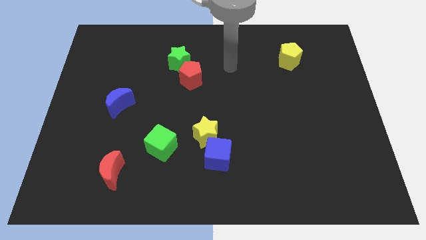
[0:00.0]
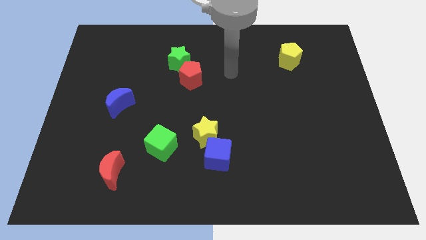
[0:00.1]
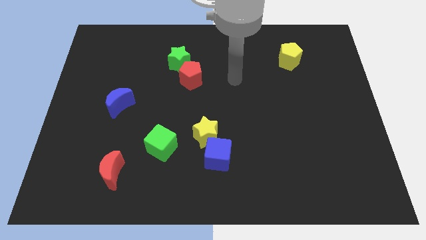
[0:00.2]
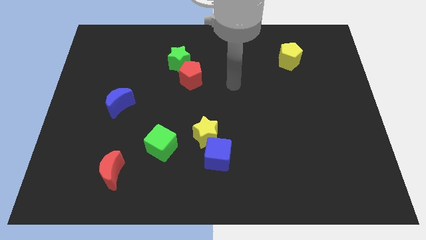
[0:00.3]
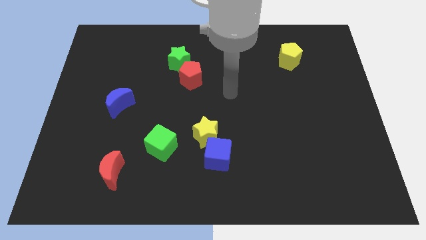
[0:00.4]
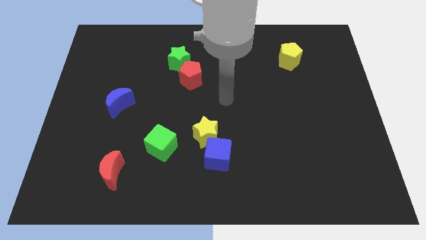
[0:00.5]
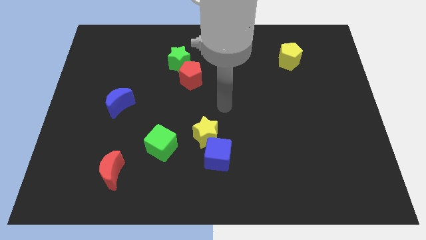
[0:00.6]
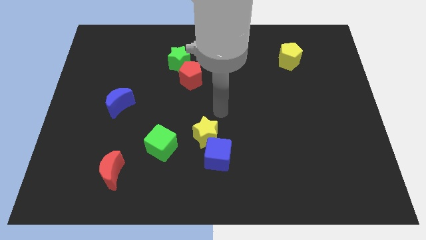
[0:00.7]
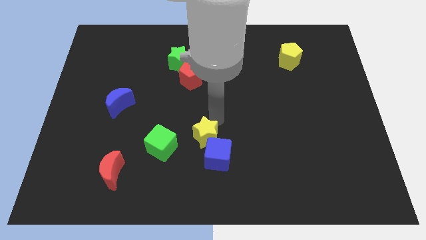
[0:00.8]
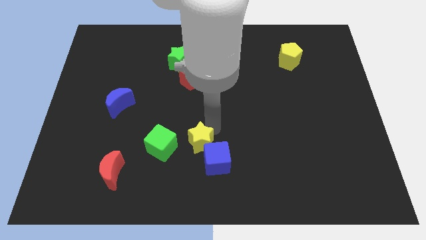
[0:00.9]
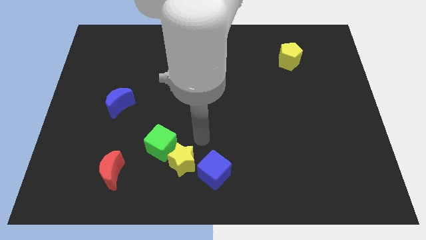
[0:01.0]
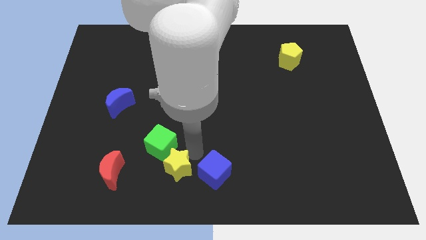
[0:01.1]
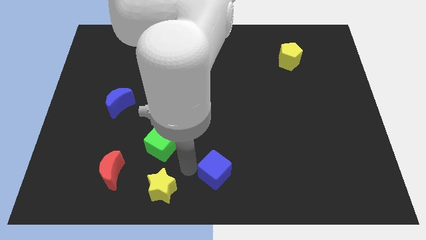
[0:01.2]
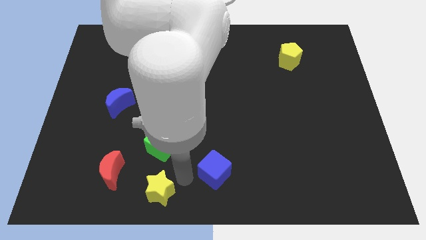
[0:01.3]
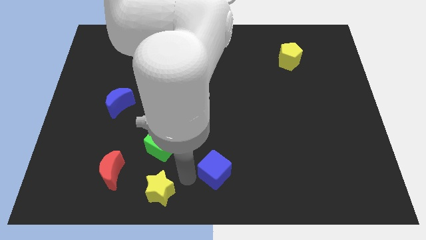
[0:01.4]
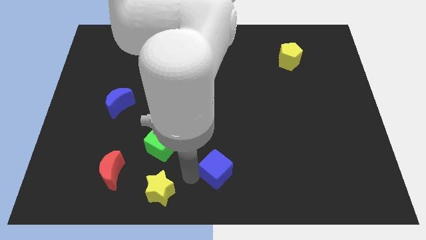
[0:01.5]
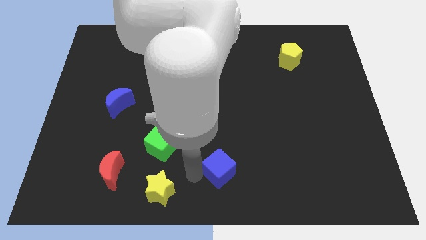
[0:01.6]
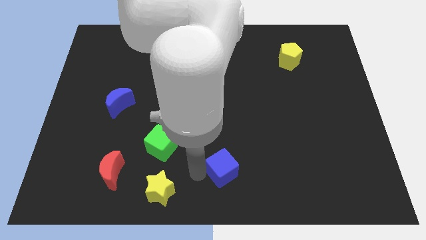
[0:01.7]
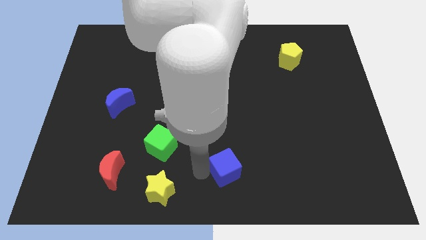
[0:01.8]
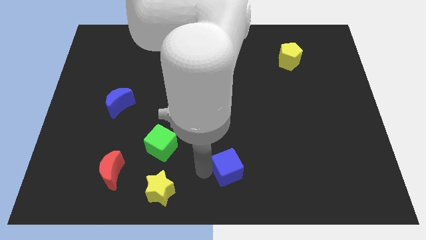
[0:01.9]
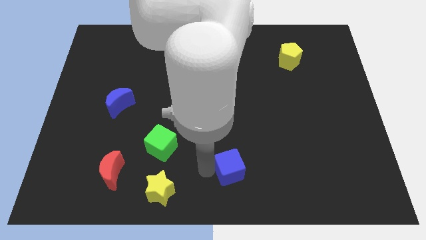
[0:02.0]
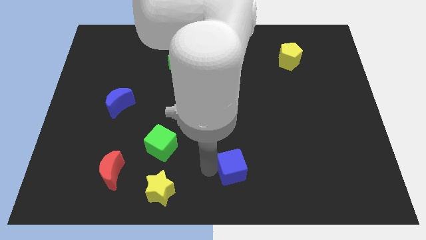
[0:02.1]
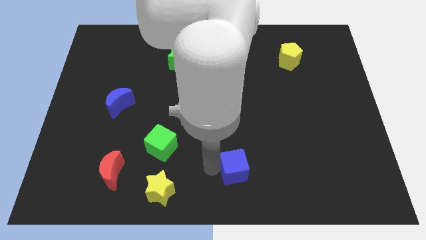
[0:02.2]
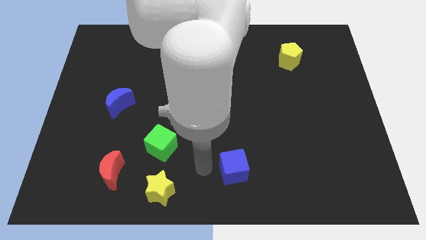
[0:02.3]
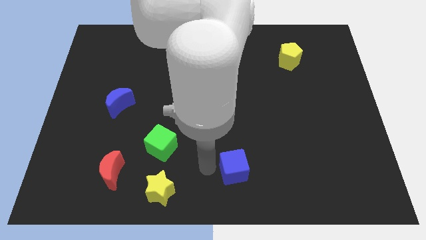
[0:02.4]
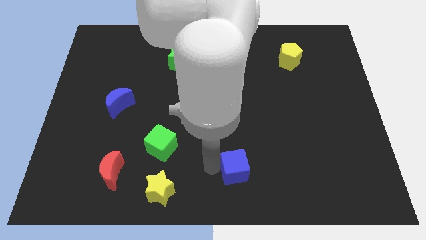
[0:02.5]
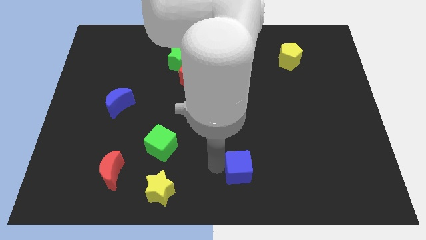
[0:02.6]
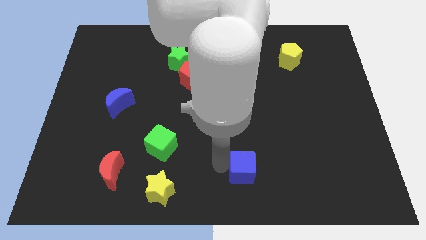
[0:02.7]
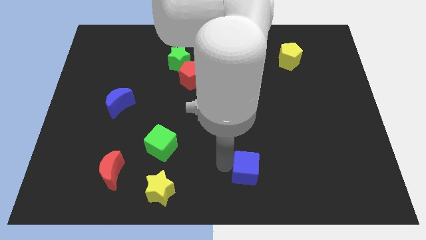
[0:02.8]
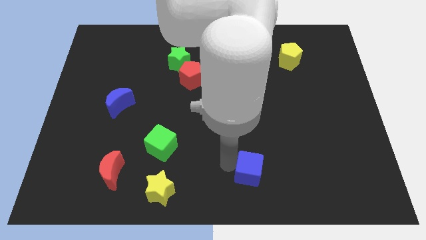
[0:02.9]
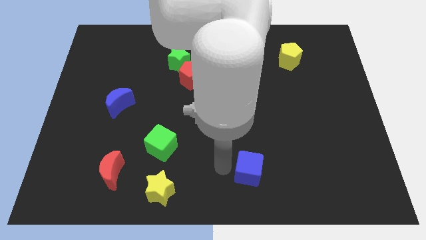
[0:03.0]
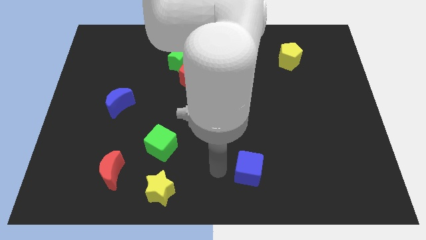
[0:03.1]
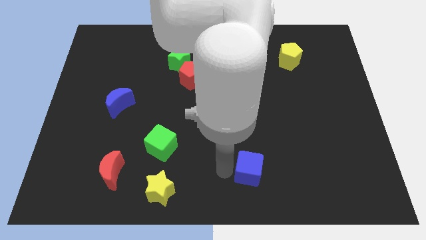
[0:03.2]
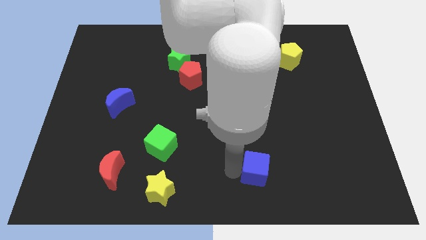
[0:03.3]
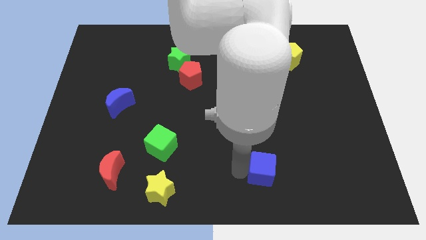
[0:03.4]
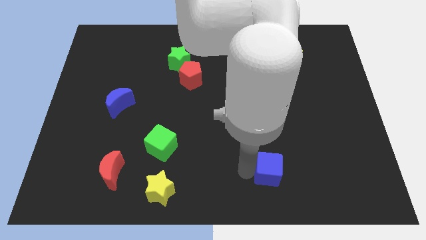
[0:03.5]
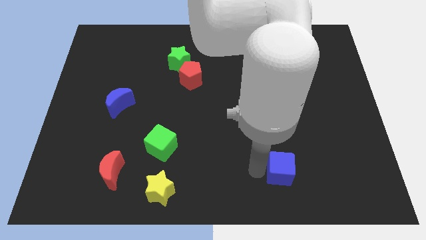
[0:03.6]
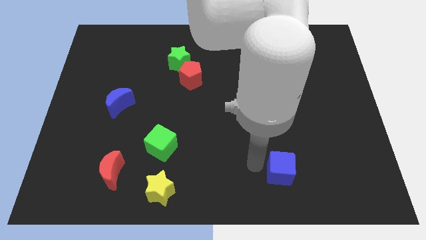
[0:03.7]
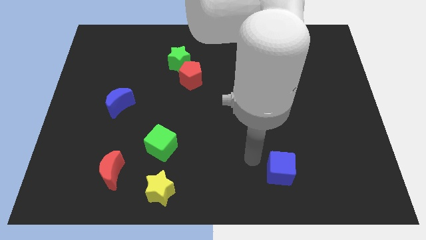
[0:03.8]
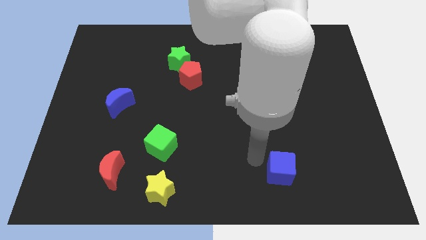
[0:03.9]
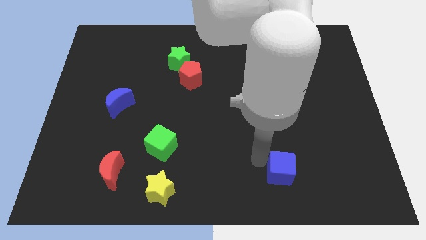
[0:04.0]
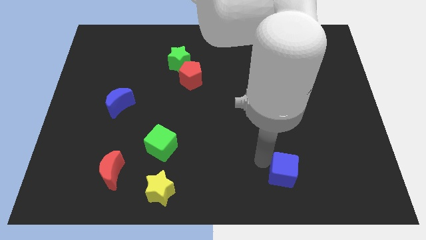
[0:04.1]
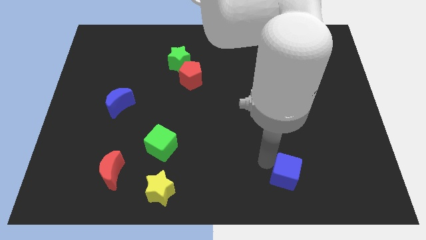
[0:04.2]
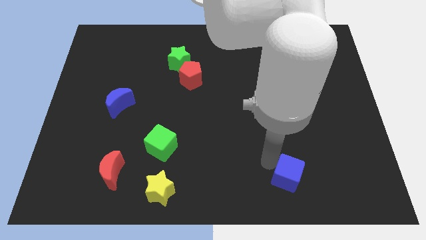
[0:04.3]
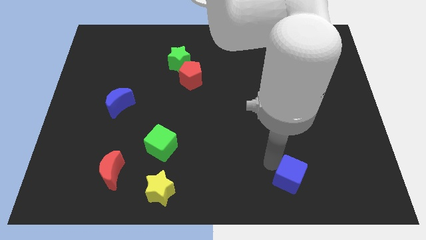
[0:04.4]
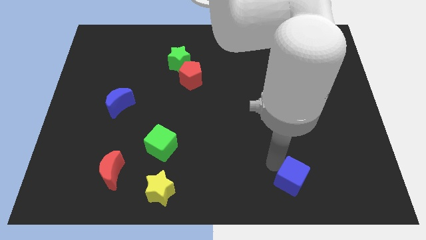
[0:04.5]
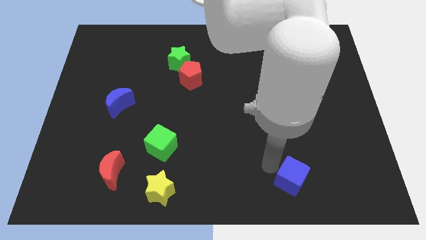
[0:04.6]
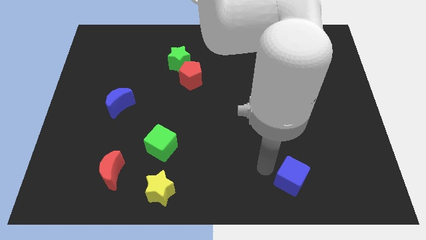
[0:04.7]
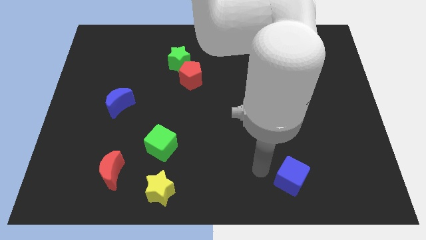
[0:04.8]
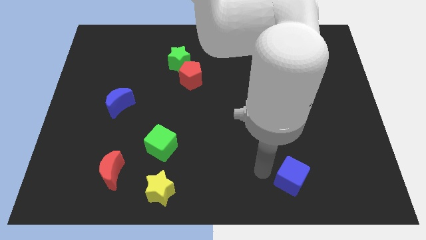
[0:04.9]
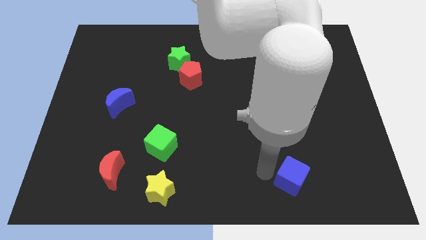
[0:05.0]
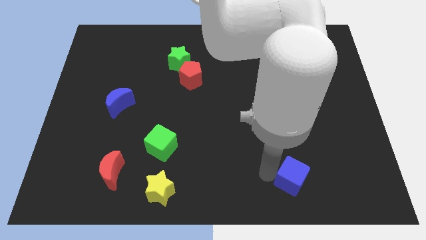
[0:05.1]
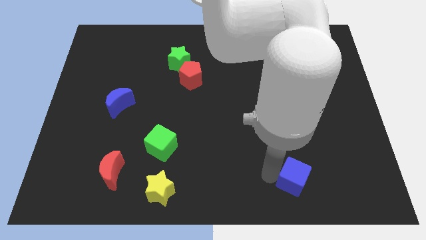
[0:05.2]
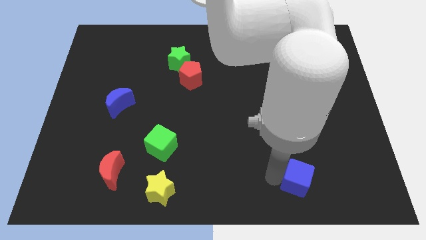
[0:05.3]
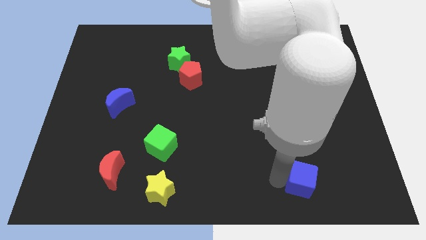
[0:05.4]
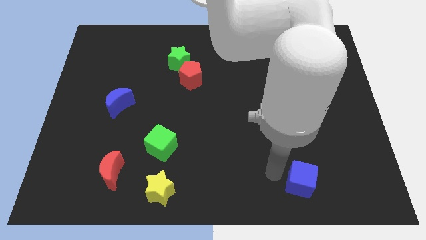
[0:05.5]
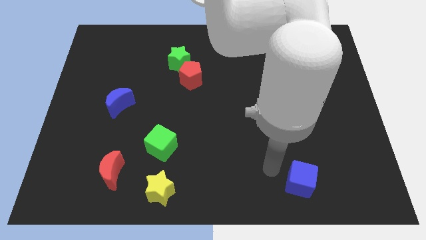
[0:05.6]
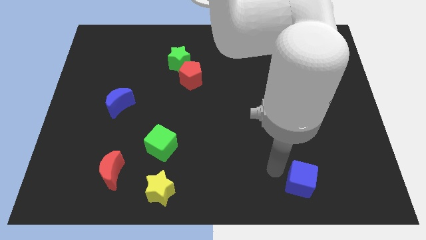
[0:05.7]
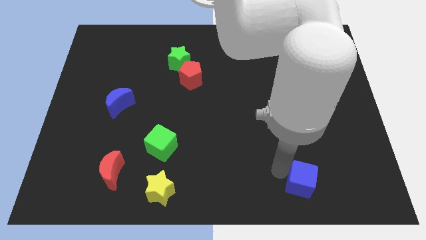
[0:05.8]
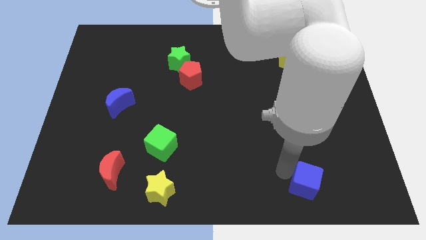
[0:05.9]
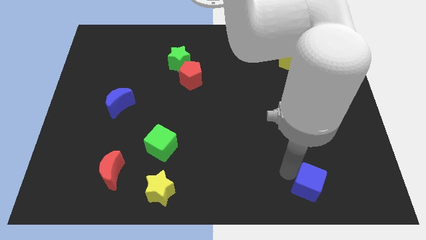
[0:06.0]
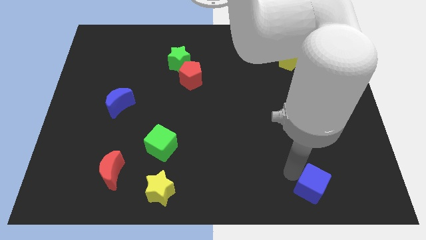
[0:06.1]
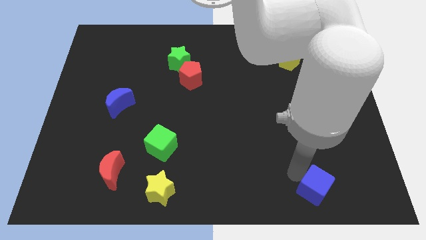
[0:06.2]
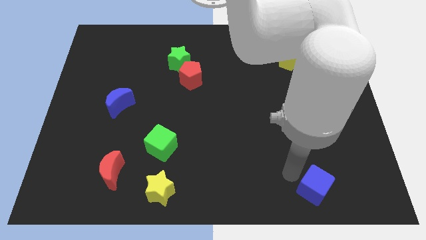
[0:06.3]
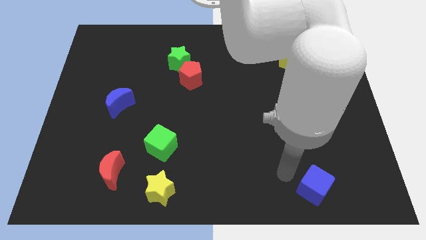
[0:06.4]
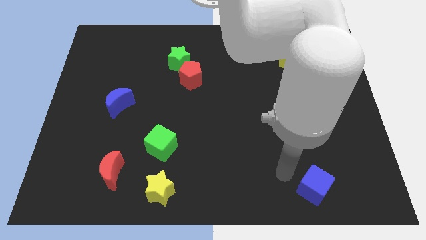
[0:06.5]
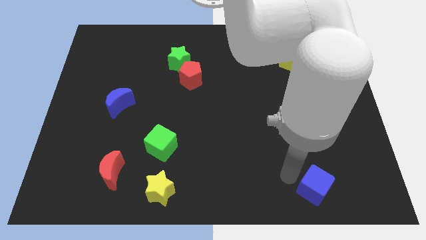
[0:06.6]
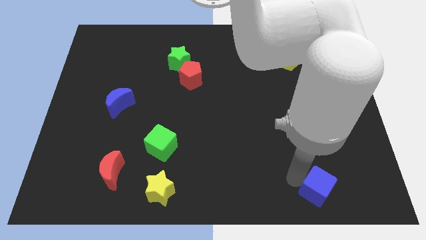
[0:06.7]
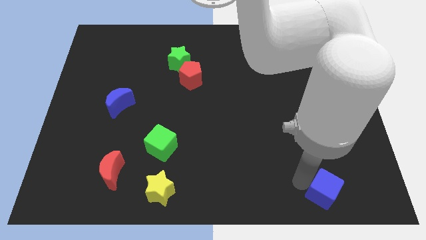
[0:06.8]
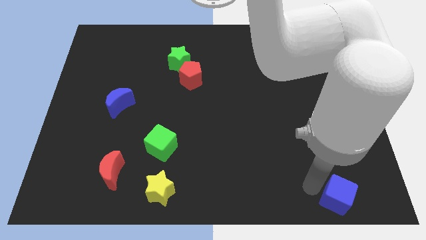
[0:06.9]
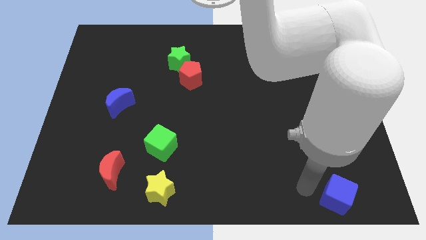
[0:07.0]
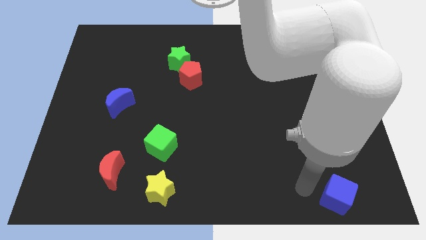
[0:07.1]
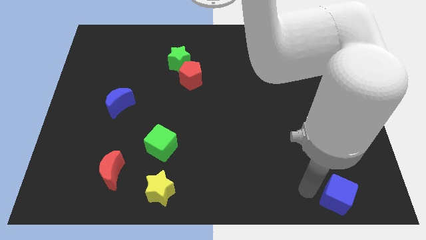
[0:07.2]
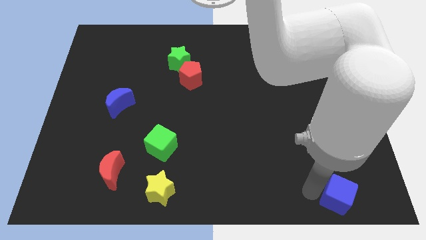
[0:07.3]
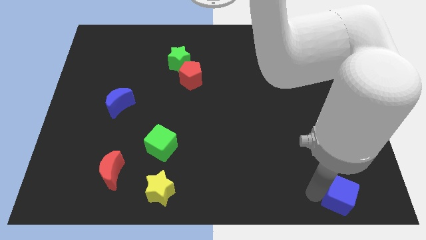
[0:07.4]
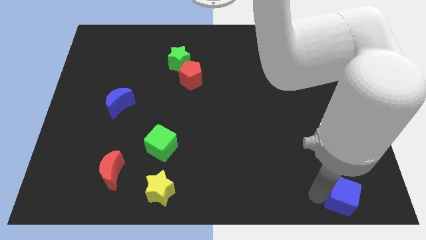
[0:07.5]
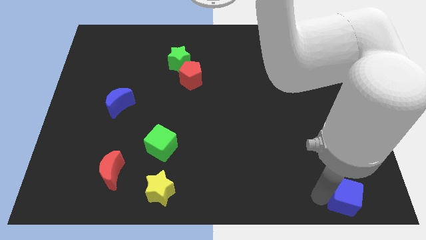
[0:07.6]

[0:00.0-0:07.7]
put the blue cube to the bottom right of the board
